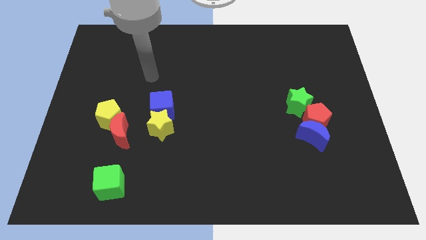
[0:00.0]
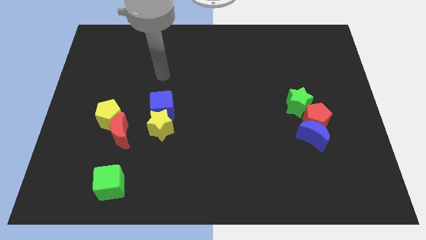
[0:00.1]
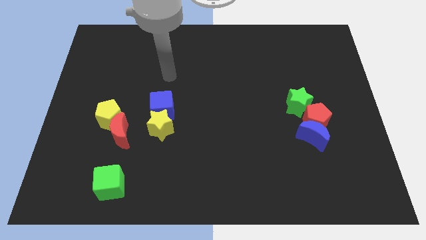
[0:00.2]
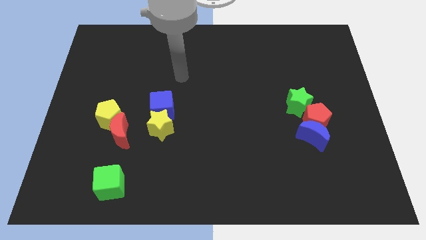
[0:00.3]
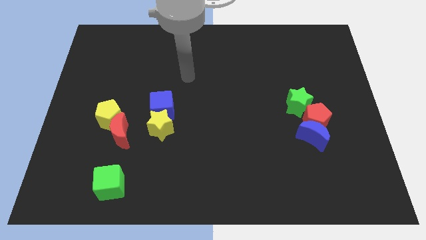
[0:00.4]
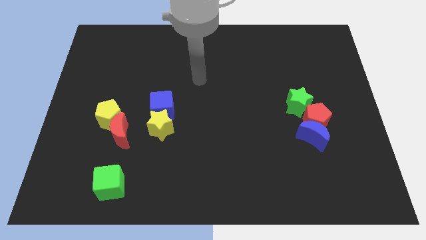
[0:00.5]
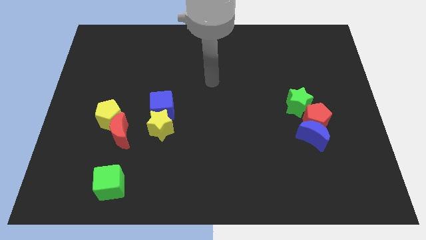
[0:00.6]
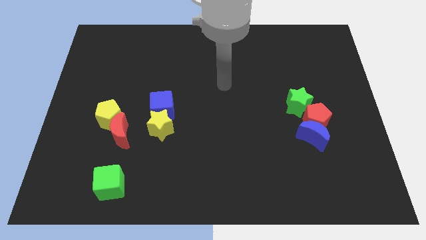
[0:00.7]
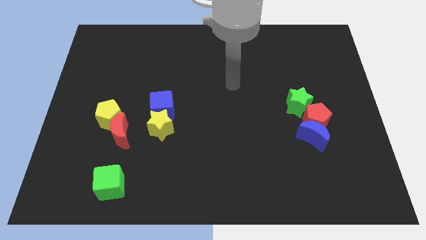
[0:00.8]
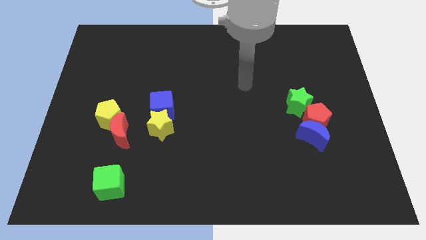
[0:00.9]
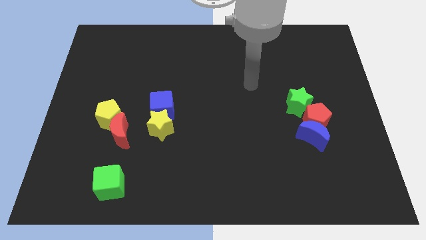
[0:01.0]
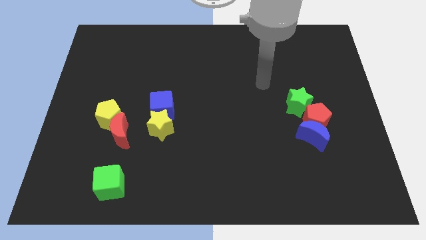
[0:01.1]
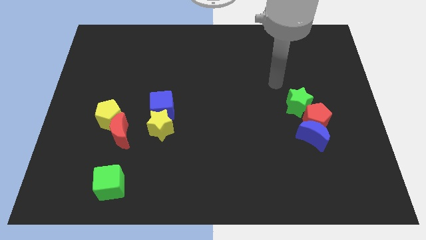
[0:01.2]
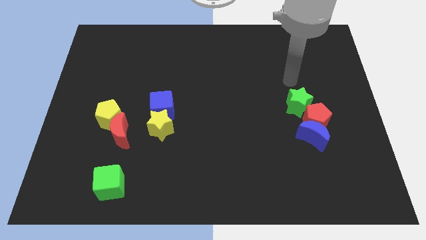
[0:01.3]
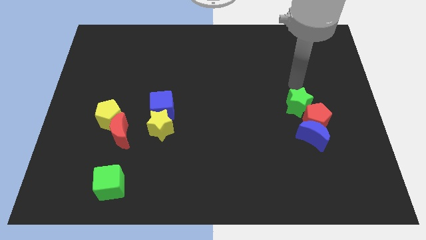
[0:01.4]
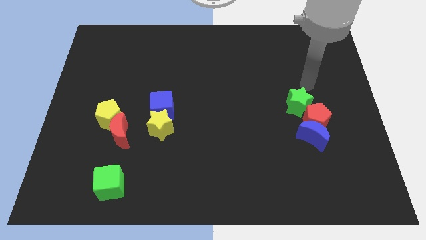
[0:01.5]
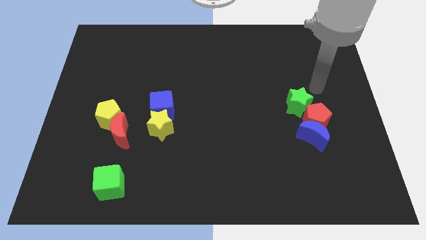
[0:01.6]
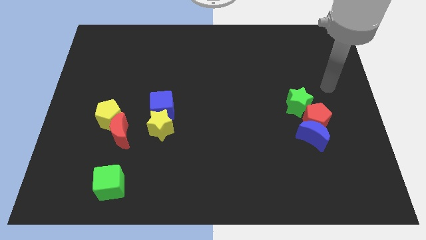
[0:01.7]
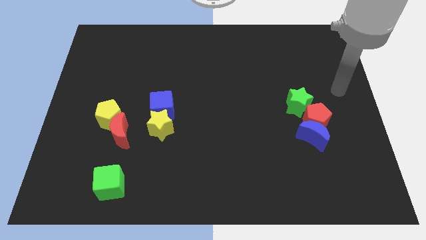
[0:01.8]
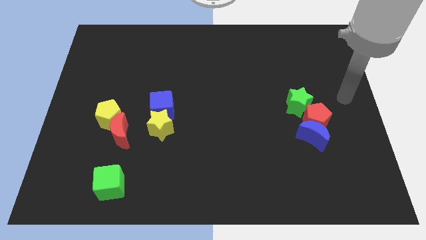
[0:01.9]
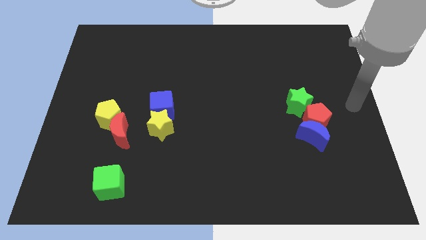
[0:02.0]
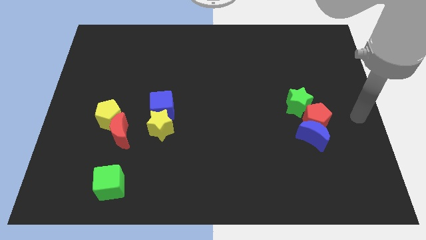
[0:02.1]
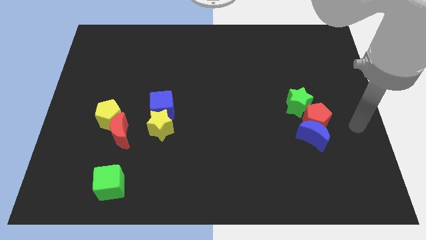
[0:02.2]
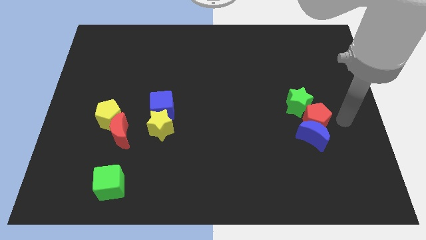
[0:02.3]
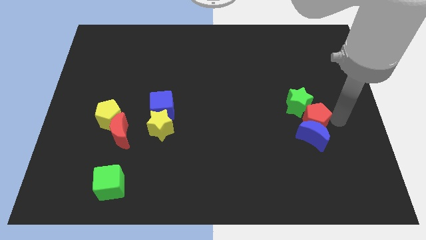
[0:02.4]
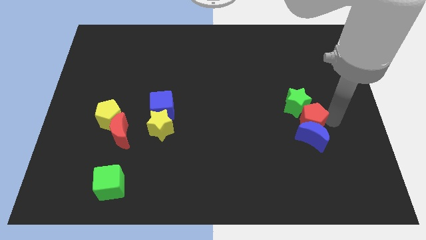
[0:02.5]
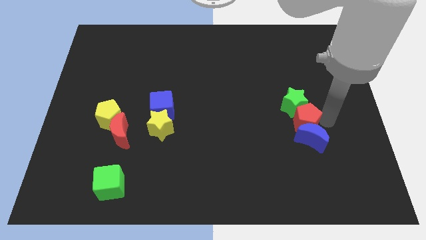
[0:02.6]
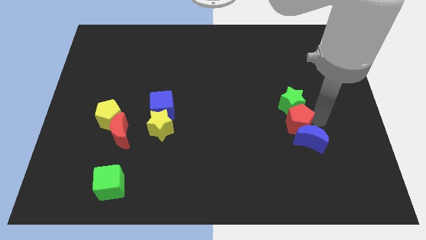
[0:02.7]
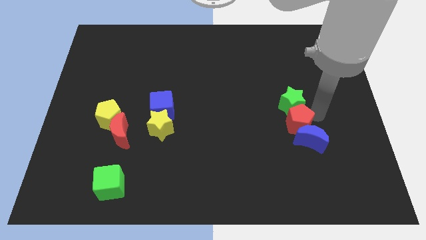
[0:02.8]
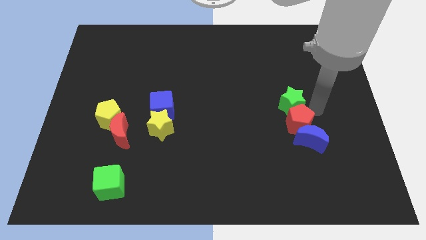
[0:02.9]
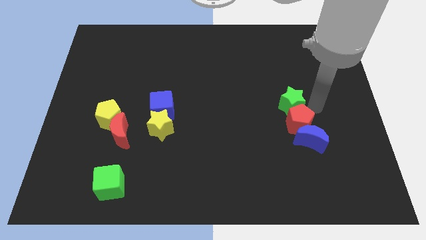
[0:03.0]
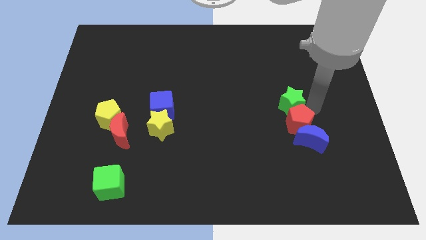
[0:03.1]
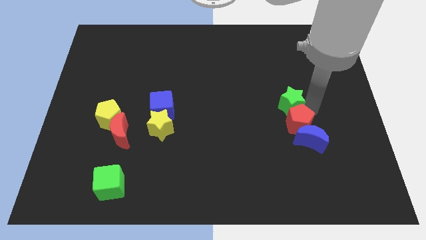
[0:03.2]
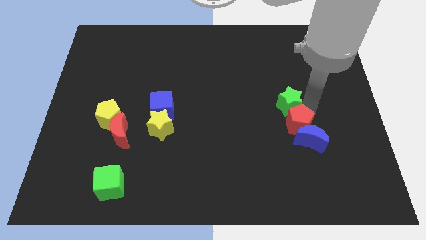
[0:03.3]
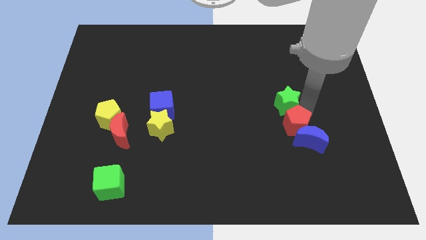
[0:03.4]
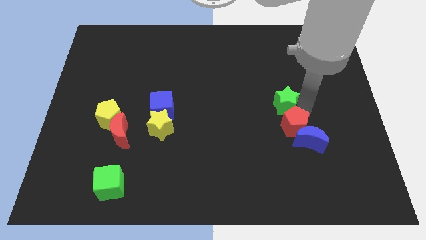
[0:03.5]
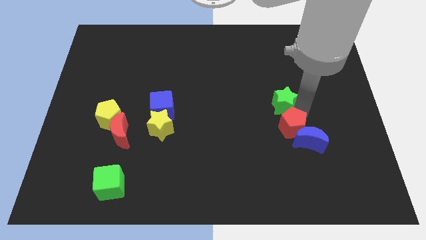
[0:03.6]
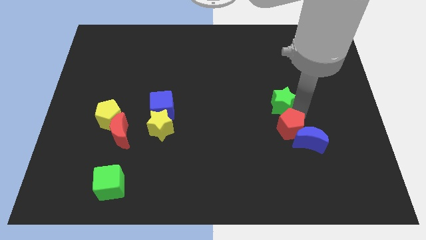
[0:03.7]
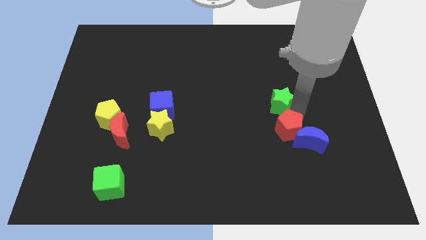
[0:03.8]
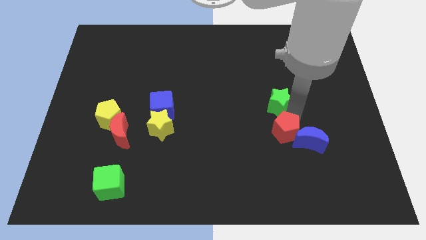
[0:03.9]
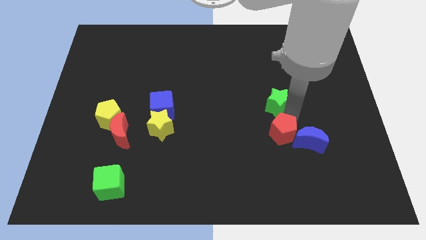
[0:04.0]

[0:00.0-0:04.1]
slightly slide the red pentagon down and to the left diagonally

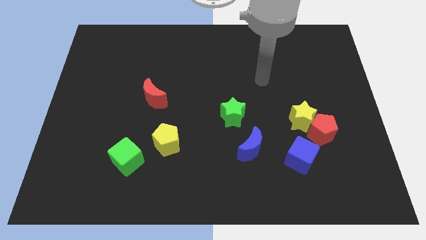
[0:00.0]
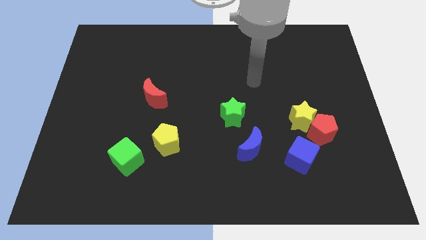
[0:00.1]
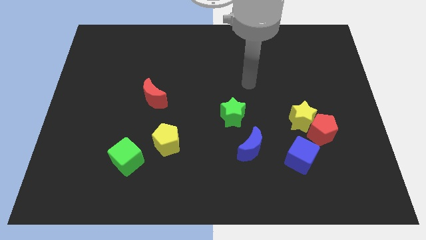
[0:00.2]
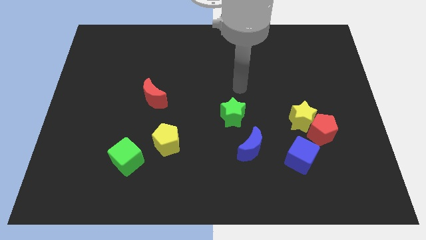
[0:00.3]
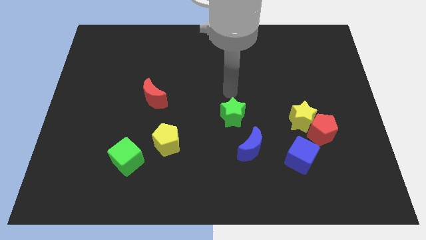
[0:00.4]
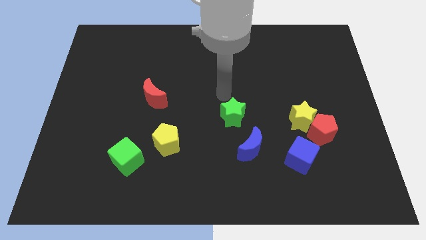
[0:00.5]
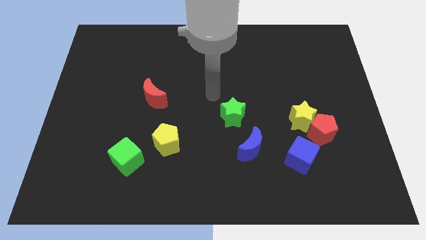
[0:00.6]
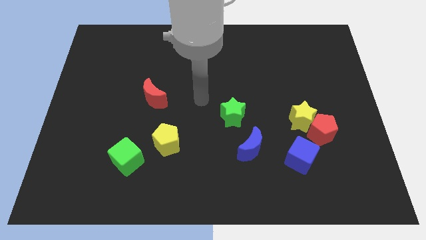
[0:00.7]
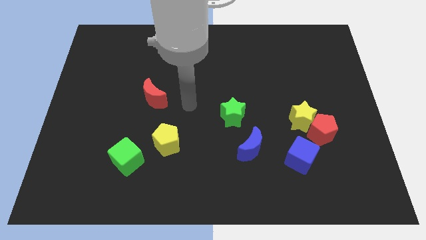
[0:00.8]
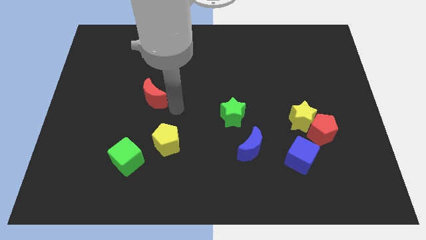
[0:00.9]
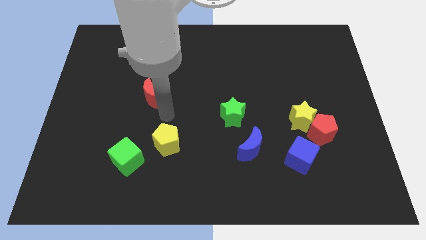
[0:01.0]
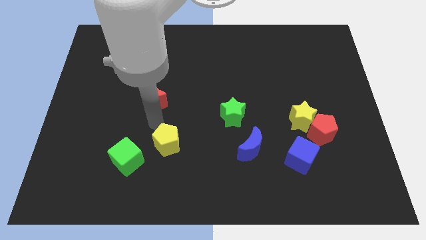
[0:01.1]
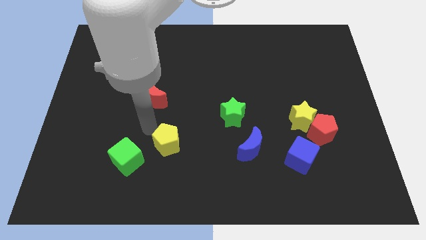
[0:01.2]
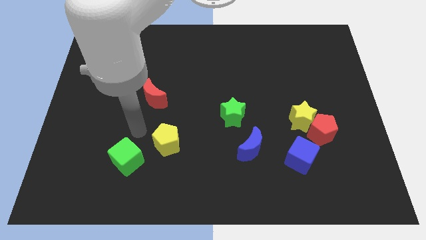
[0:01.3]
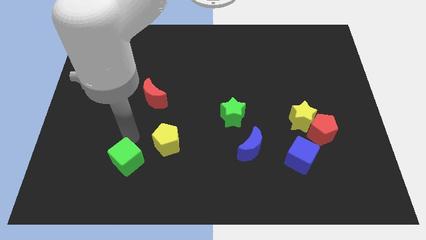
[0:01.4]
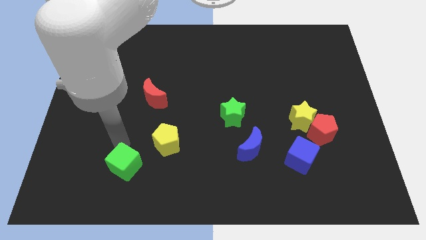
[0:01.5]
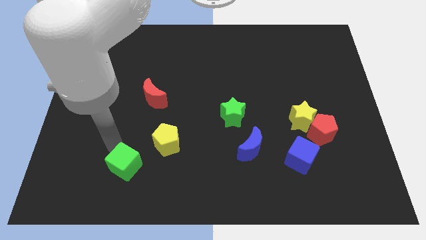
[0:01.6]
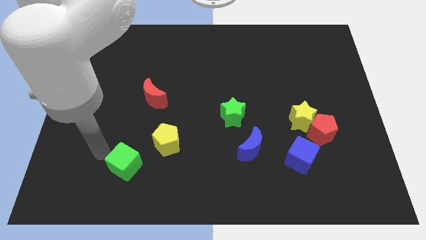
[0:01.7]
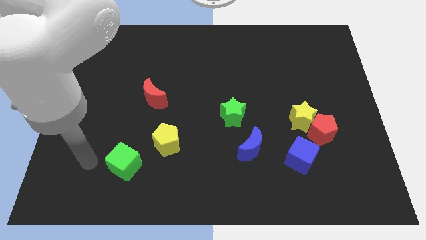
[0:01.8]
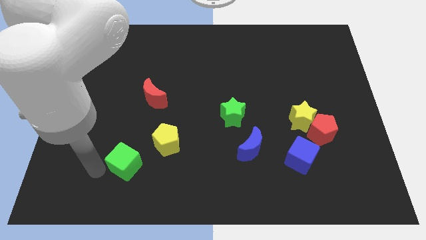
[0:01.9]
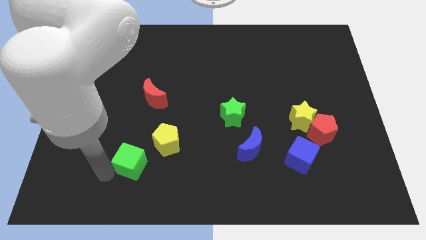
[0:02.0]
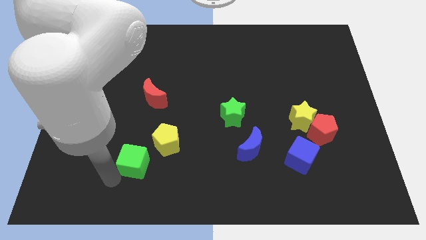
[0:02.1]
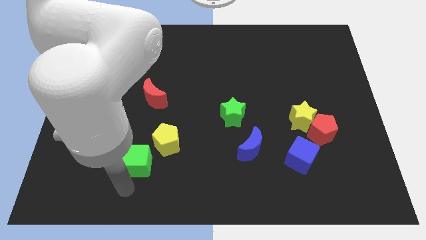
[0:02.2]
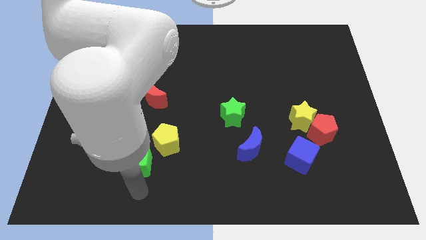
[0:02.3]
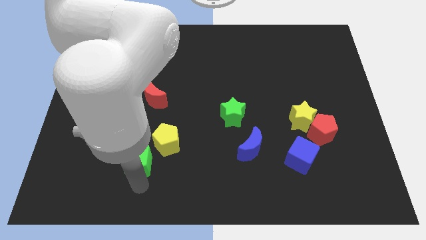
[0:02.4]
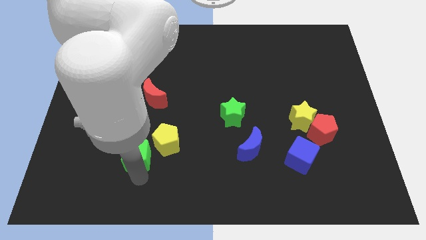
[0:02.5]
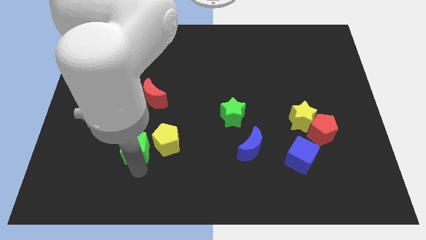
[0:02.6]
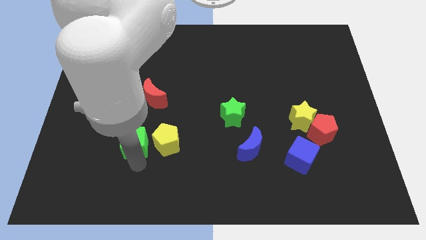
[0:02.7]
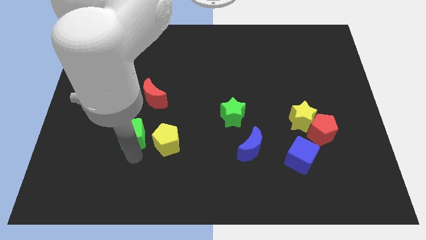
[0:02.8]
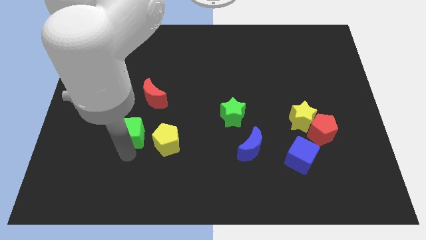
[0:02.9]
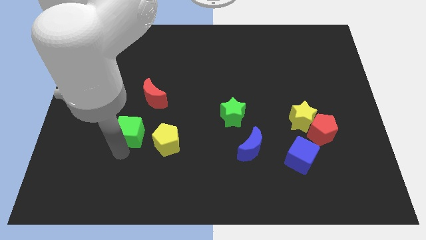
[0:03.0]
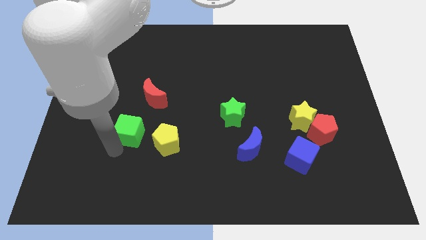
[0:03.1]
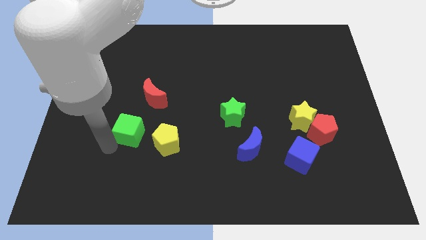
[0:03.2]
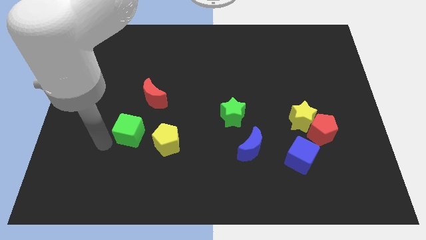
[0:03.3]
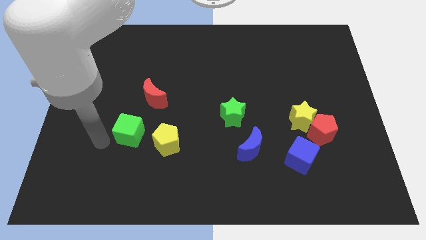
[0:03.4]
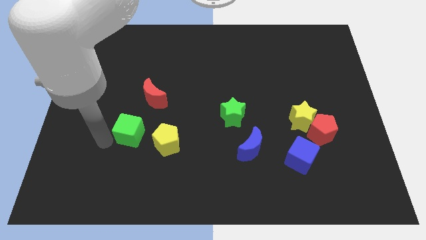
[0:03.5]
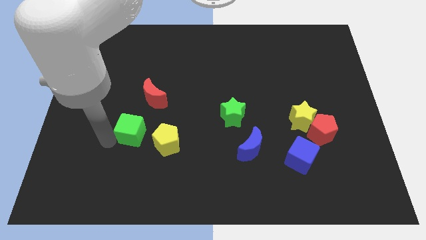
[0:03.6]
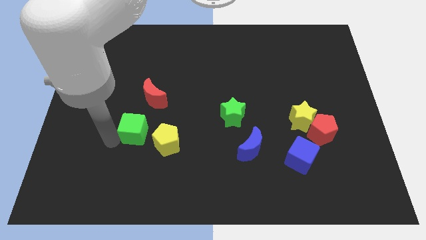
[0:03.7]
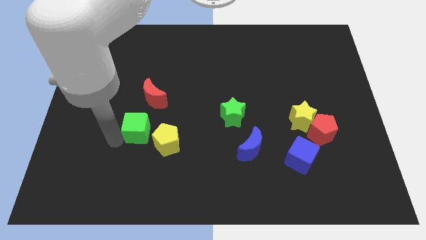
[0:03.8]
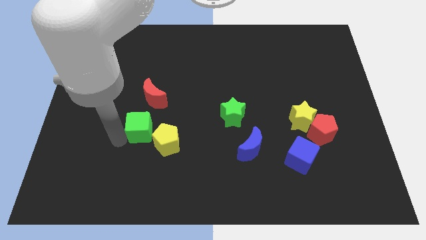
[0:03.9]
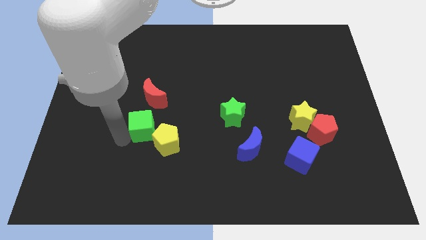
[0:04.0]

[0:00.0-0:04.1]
push the green cube upwards and then right a bit
